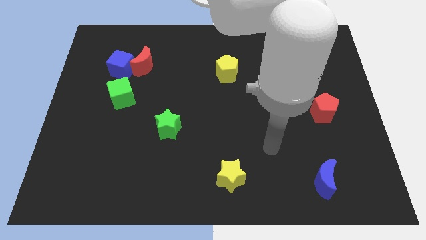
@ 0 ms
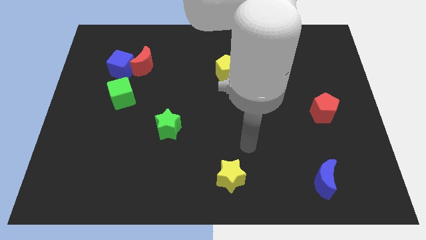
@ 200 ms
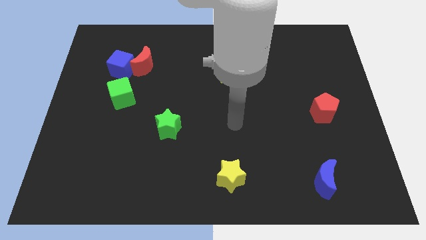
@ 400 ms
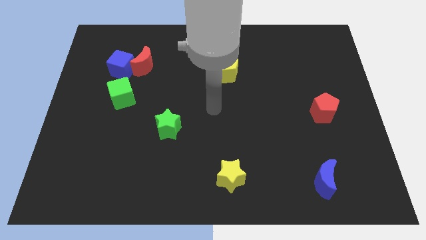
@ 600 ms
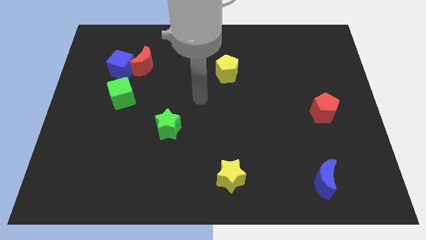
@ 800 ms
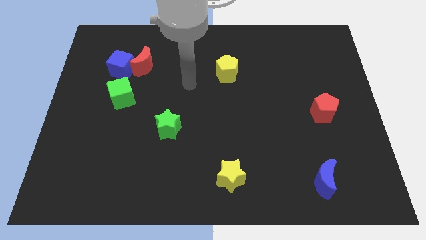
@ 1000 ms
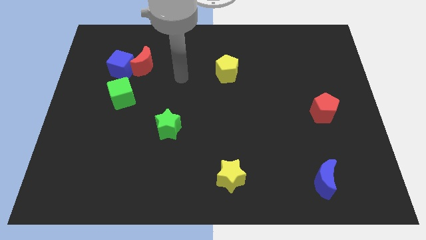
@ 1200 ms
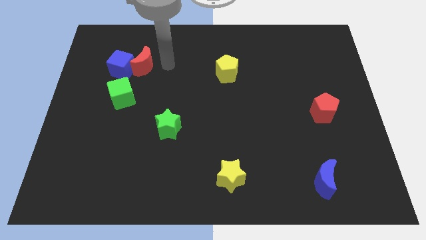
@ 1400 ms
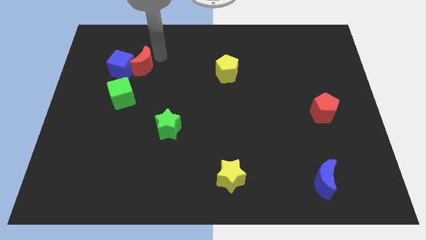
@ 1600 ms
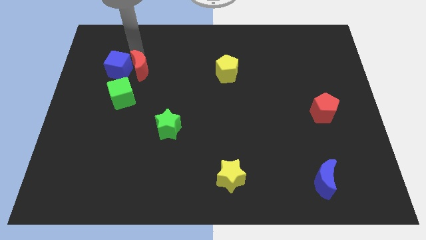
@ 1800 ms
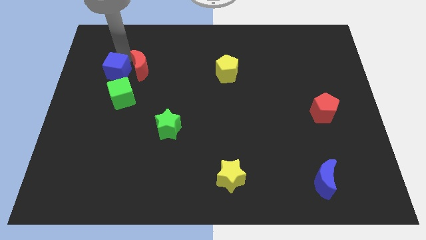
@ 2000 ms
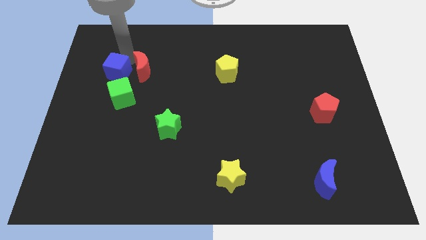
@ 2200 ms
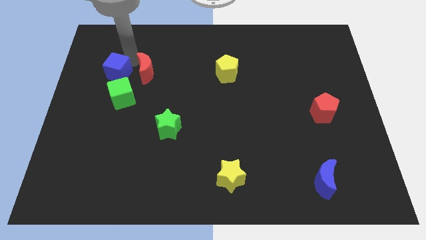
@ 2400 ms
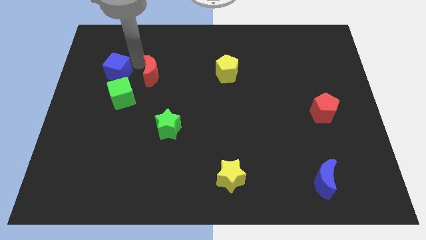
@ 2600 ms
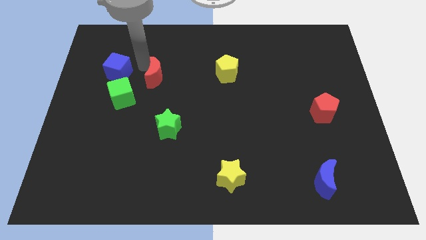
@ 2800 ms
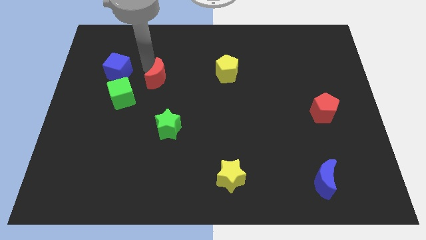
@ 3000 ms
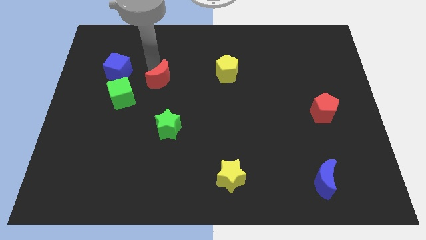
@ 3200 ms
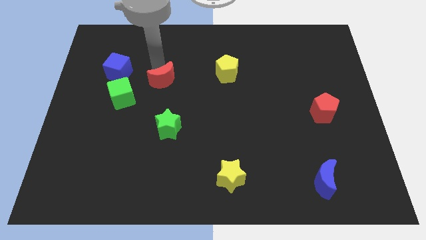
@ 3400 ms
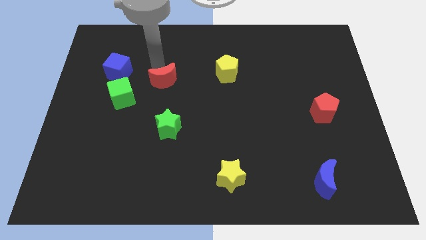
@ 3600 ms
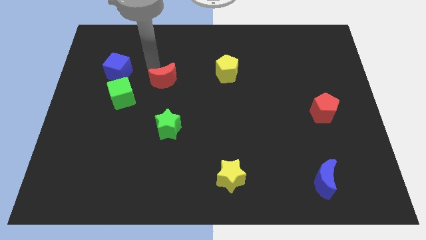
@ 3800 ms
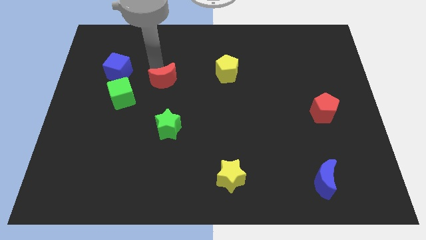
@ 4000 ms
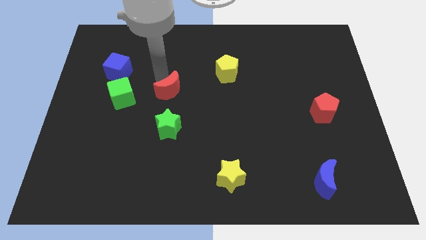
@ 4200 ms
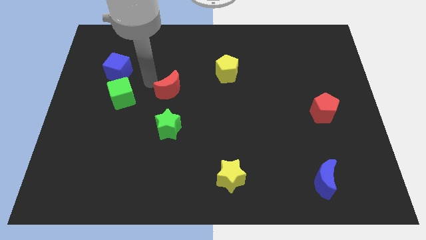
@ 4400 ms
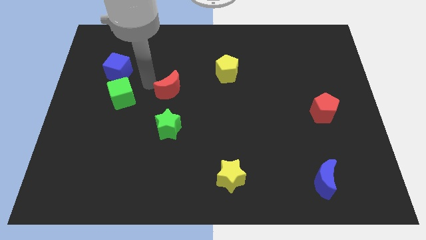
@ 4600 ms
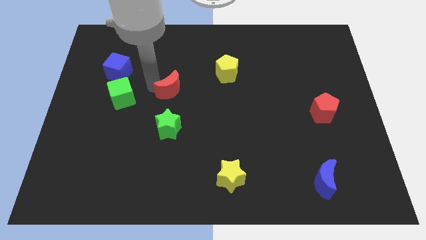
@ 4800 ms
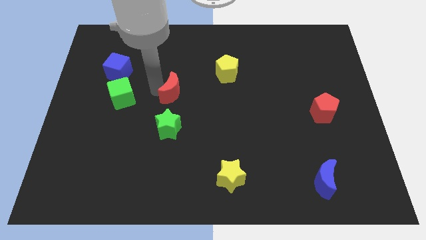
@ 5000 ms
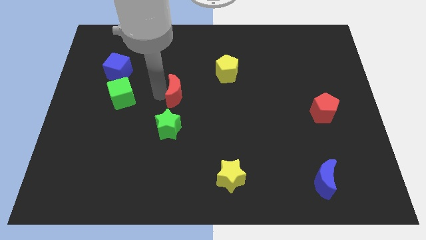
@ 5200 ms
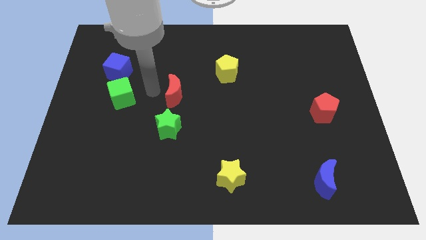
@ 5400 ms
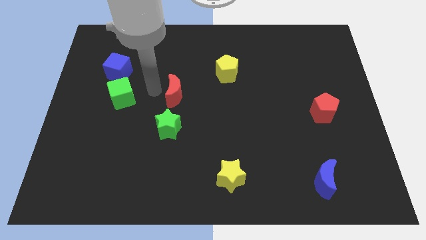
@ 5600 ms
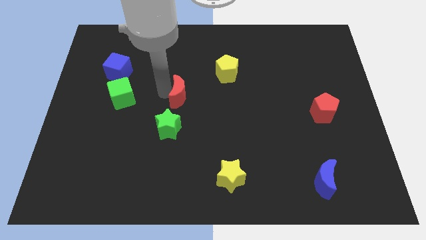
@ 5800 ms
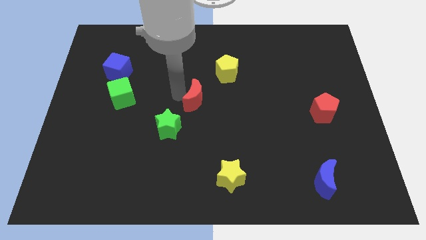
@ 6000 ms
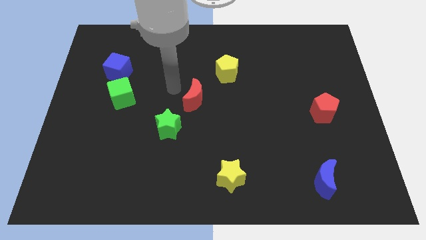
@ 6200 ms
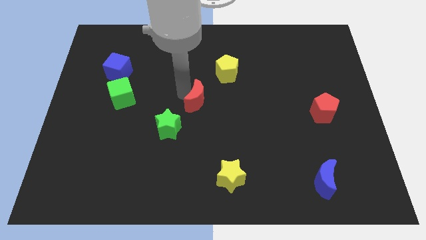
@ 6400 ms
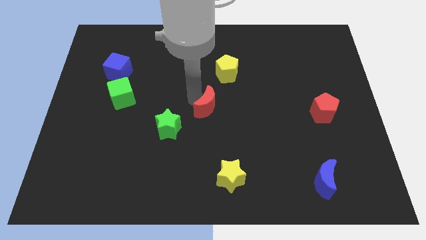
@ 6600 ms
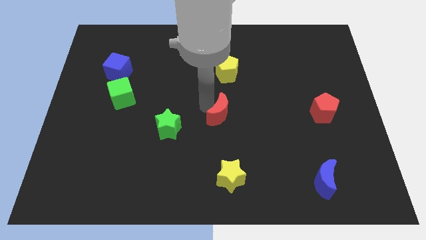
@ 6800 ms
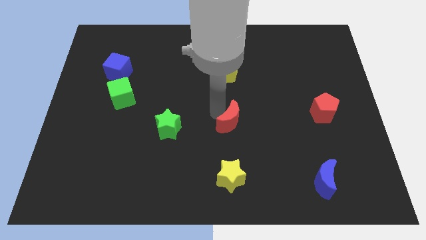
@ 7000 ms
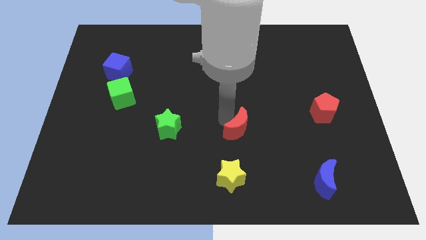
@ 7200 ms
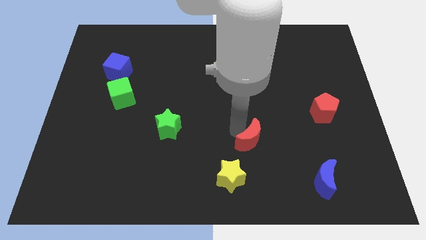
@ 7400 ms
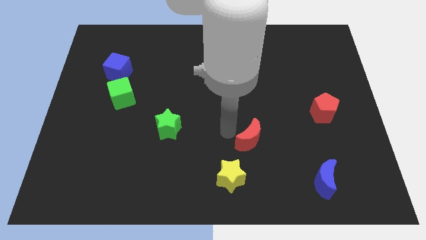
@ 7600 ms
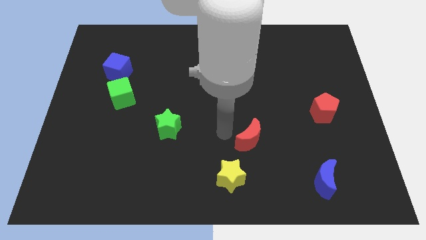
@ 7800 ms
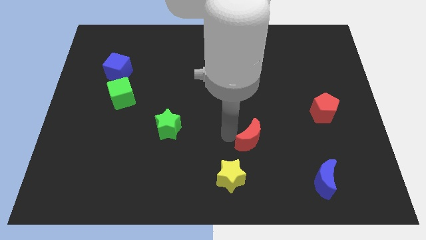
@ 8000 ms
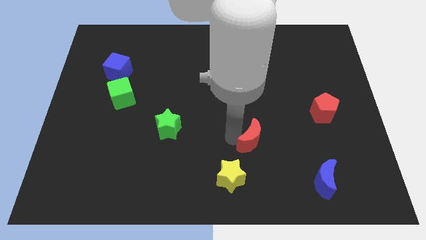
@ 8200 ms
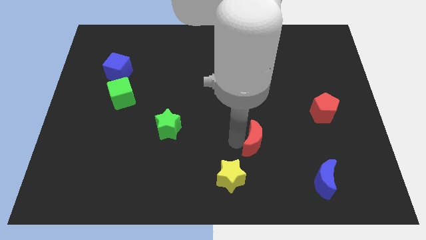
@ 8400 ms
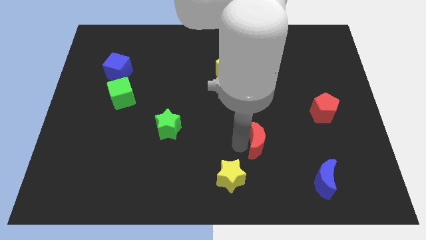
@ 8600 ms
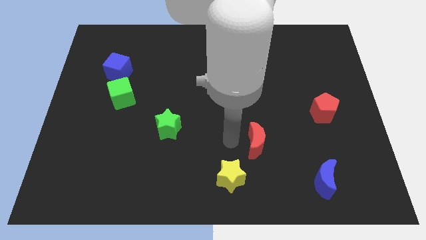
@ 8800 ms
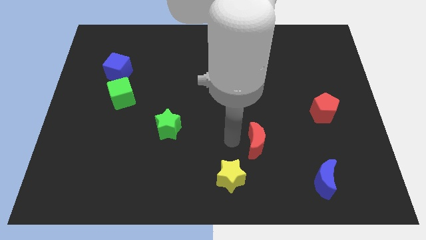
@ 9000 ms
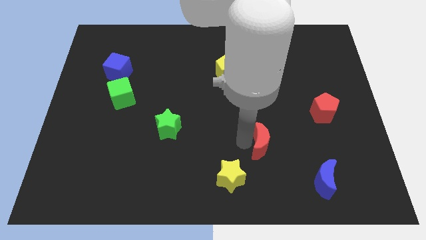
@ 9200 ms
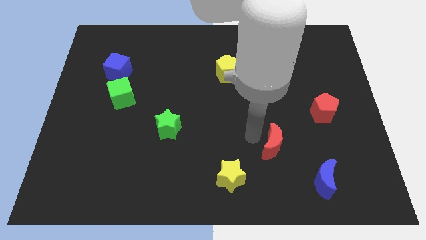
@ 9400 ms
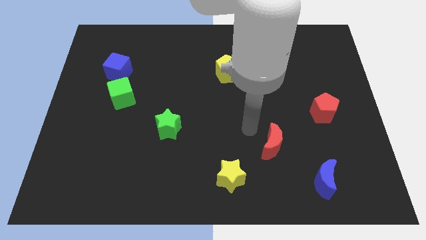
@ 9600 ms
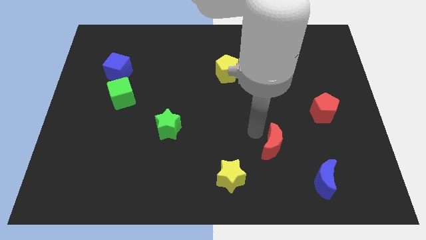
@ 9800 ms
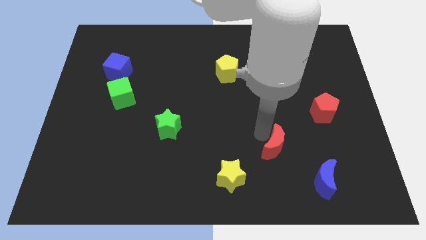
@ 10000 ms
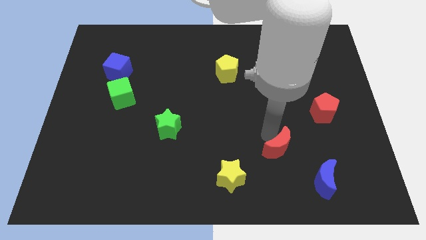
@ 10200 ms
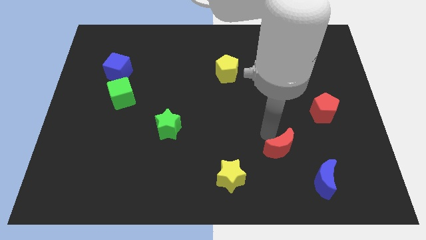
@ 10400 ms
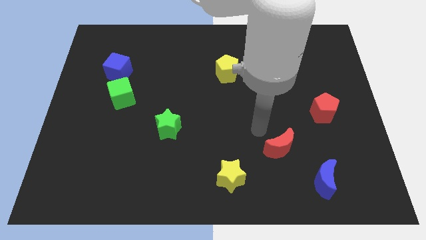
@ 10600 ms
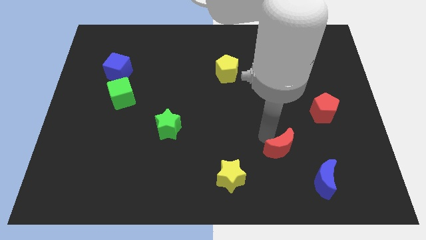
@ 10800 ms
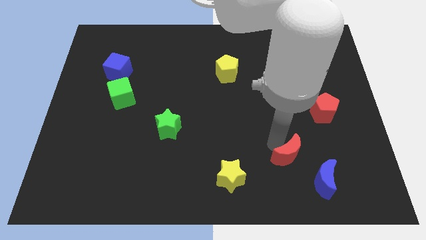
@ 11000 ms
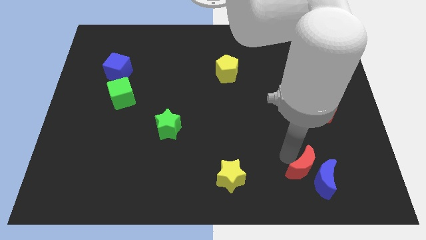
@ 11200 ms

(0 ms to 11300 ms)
slide the red moon next to the blue moon

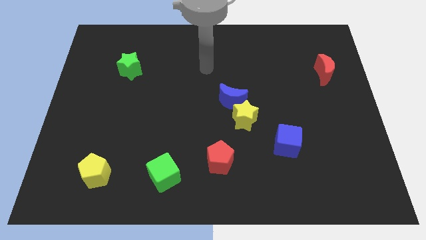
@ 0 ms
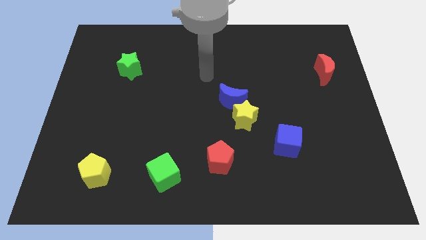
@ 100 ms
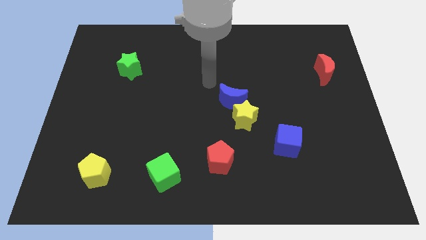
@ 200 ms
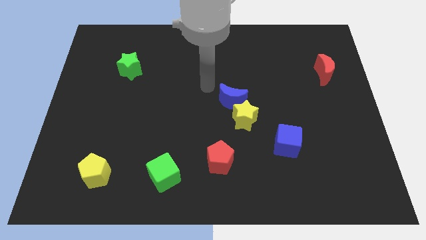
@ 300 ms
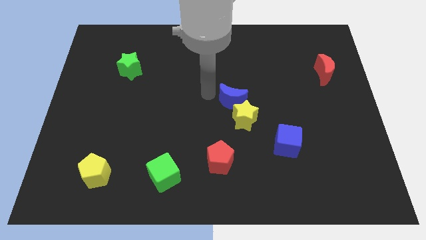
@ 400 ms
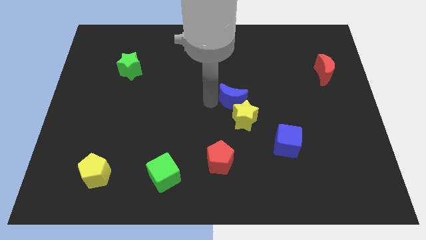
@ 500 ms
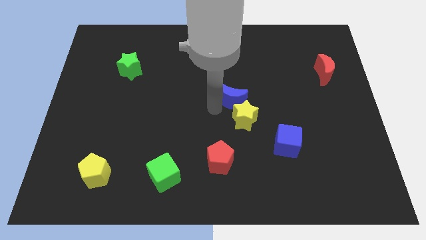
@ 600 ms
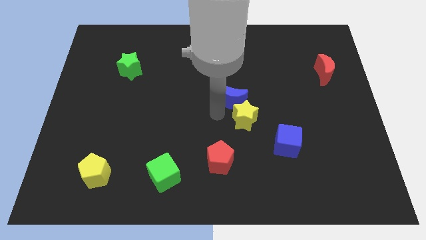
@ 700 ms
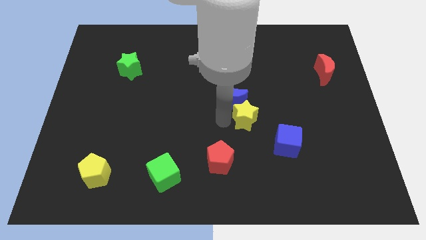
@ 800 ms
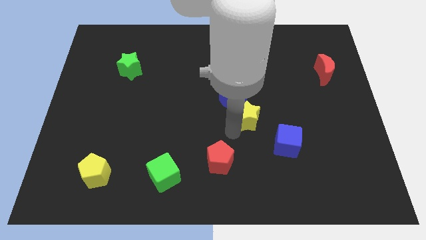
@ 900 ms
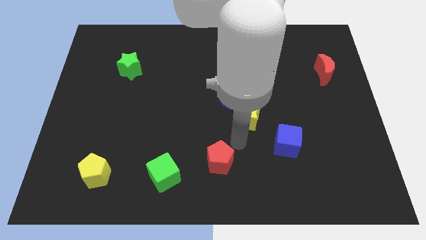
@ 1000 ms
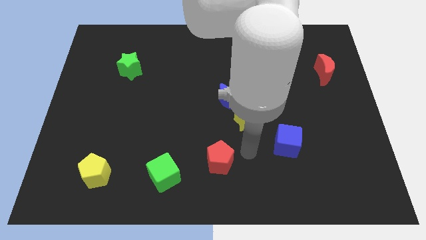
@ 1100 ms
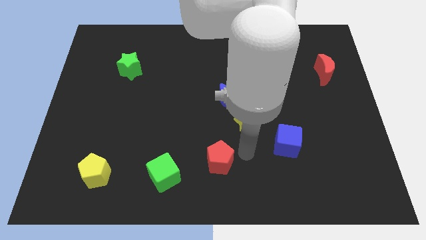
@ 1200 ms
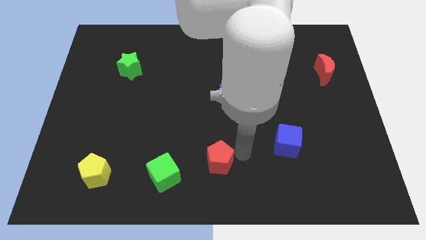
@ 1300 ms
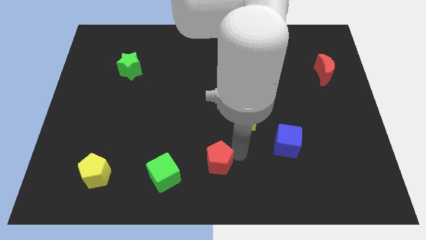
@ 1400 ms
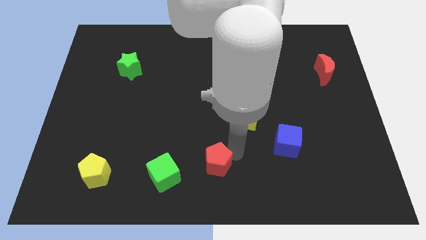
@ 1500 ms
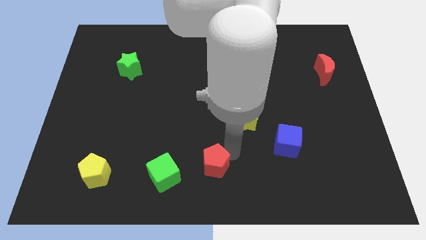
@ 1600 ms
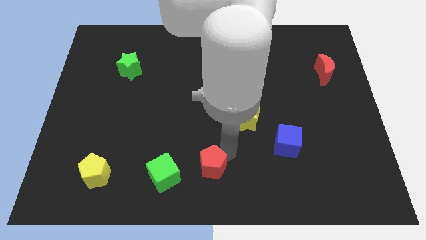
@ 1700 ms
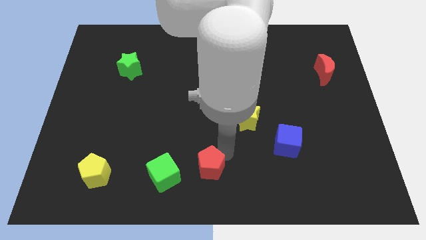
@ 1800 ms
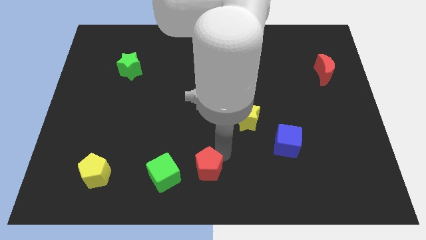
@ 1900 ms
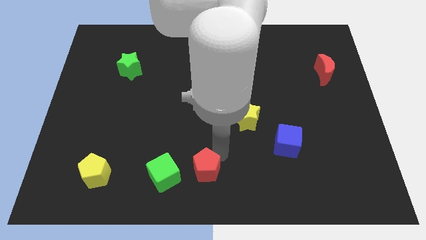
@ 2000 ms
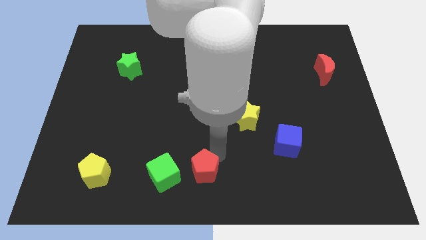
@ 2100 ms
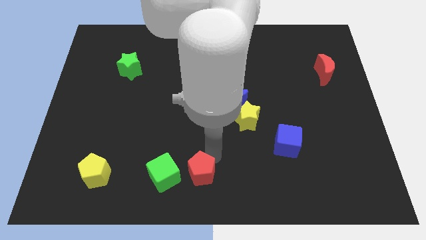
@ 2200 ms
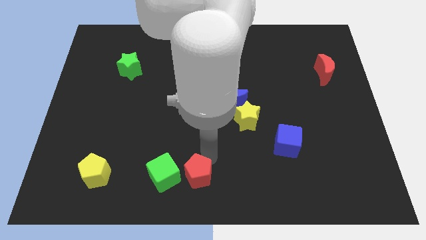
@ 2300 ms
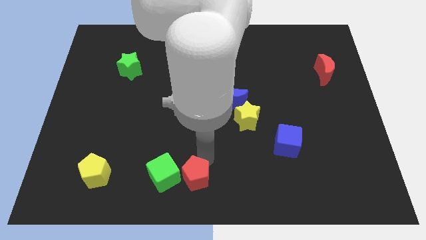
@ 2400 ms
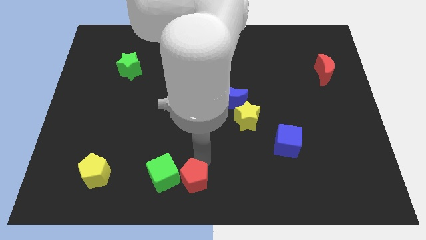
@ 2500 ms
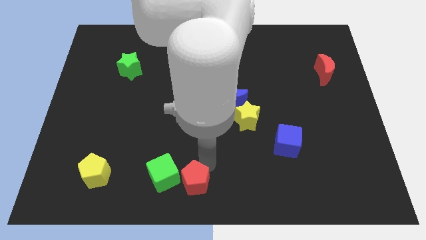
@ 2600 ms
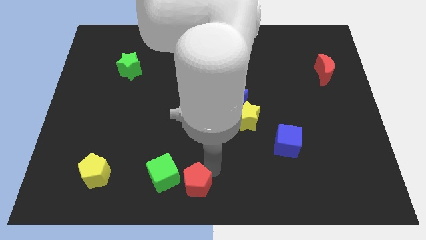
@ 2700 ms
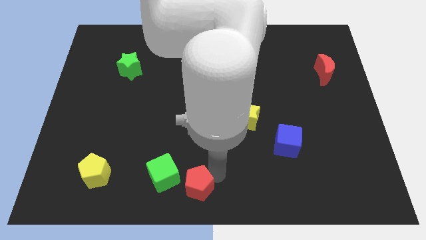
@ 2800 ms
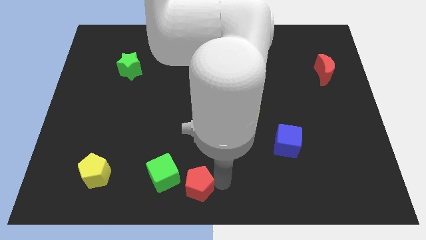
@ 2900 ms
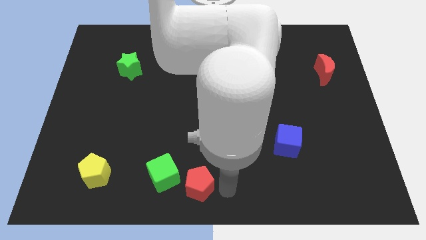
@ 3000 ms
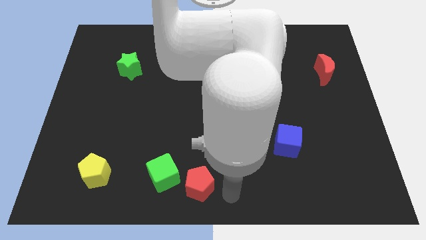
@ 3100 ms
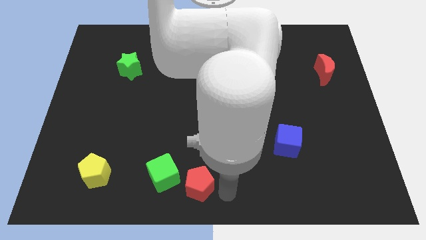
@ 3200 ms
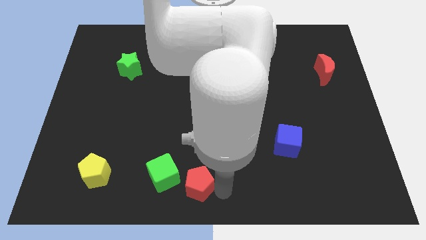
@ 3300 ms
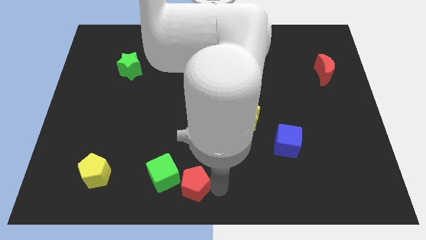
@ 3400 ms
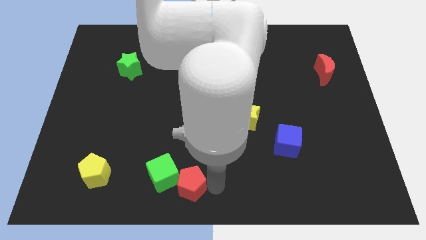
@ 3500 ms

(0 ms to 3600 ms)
push the red pentagon close to the green cube
